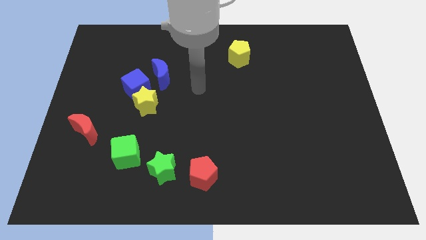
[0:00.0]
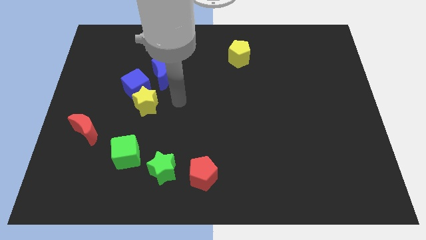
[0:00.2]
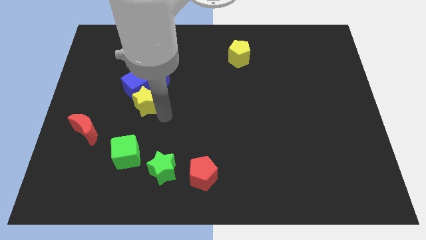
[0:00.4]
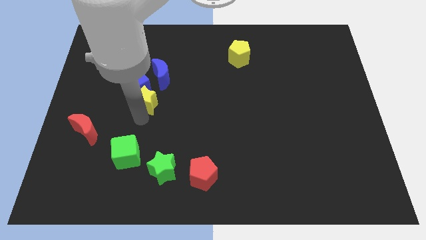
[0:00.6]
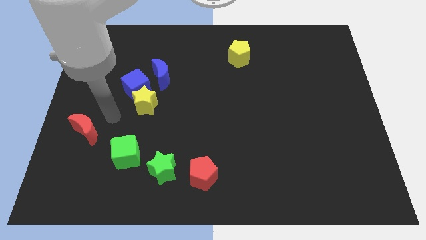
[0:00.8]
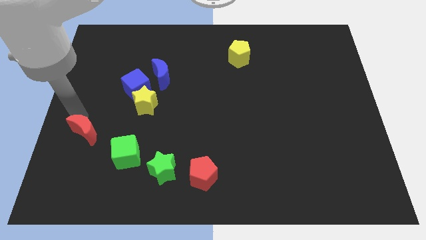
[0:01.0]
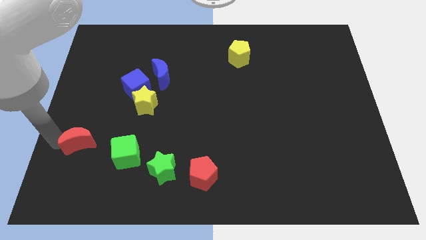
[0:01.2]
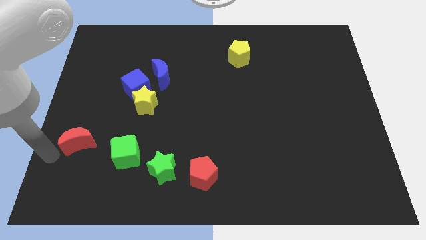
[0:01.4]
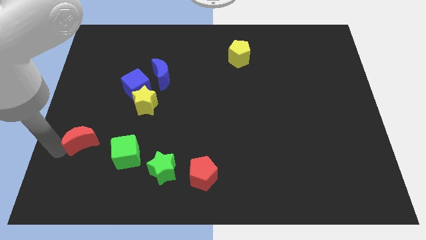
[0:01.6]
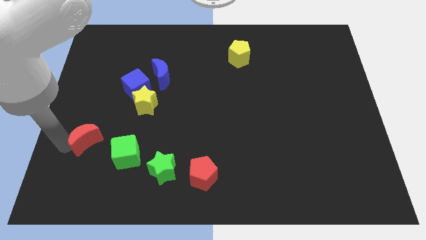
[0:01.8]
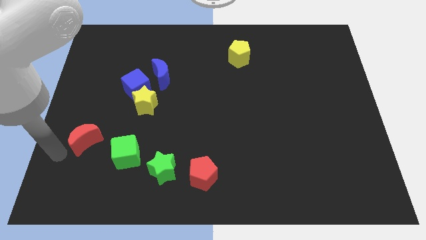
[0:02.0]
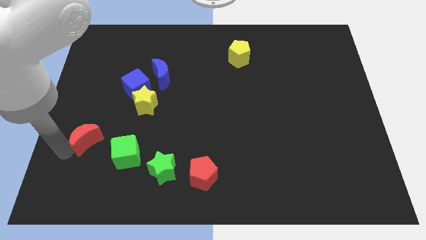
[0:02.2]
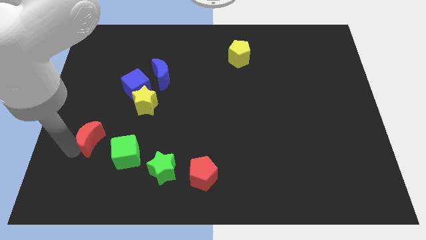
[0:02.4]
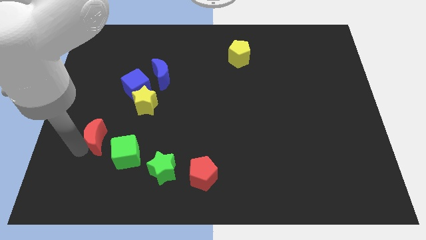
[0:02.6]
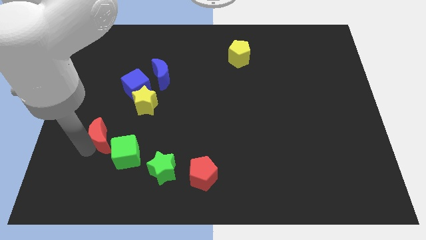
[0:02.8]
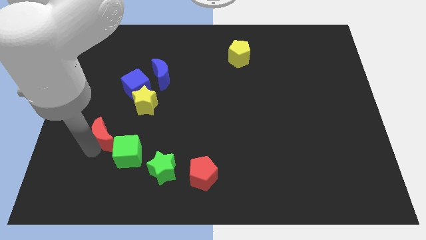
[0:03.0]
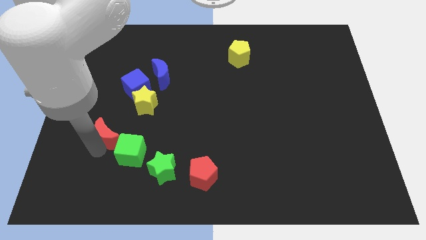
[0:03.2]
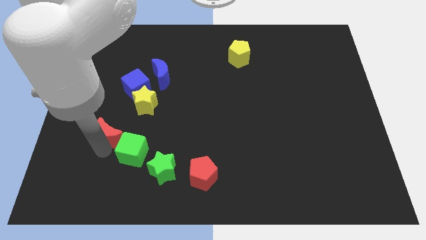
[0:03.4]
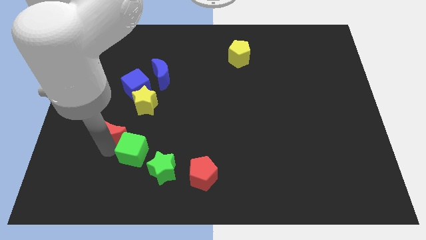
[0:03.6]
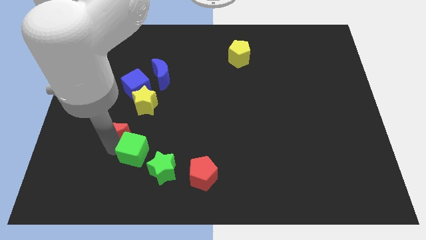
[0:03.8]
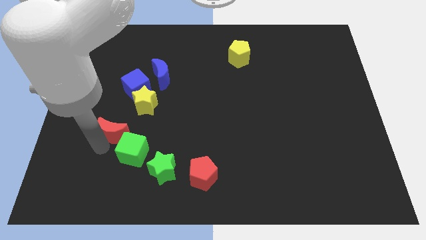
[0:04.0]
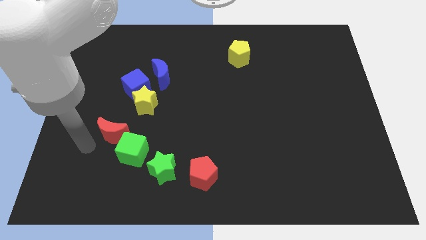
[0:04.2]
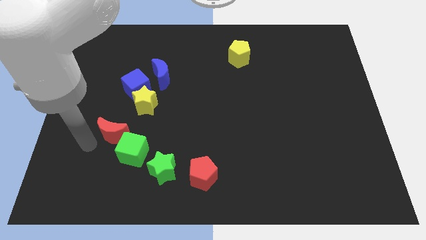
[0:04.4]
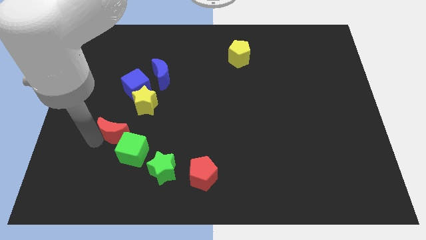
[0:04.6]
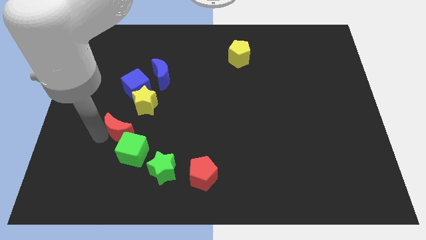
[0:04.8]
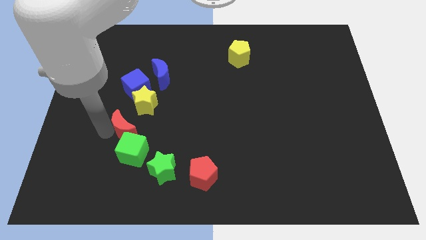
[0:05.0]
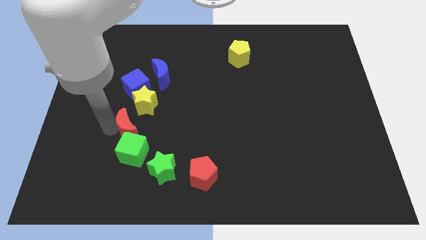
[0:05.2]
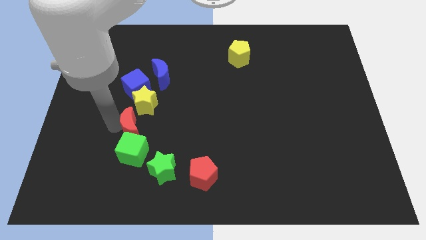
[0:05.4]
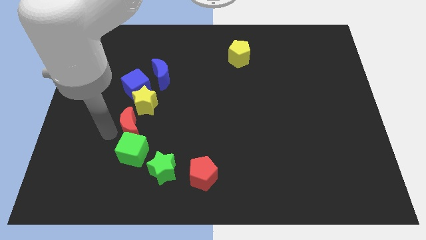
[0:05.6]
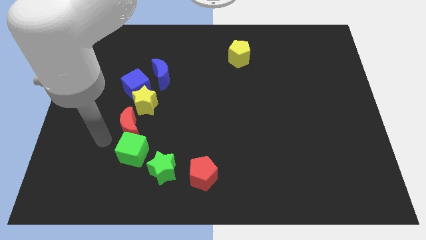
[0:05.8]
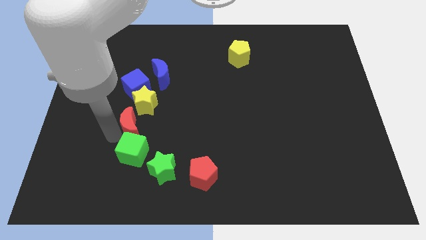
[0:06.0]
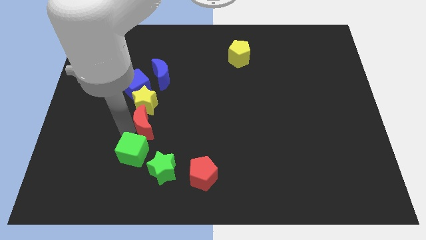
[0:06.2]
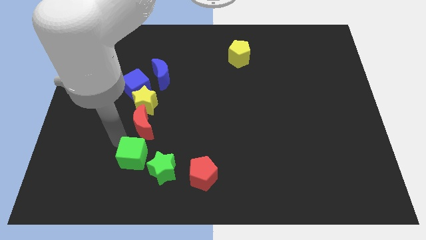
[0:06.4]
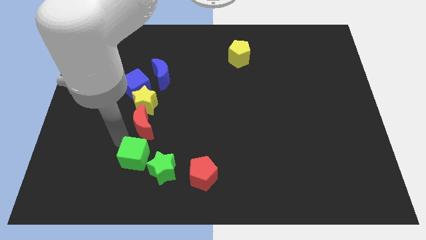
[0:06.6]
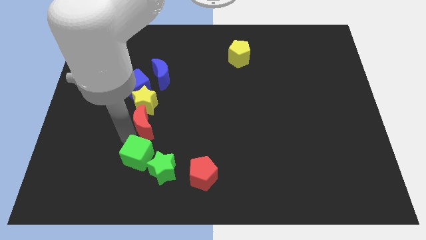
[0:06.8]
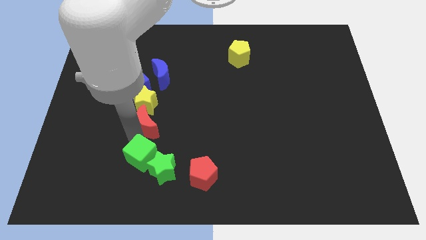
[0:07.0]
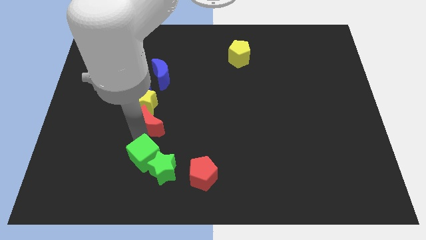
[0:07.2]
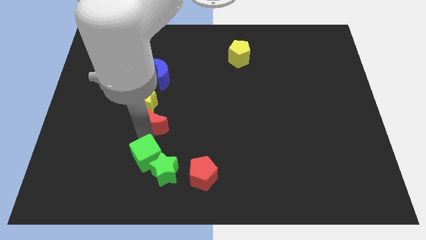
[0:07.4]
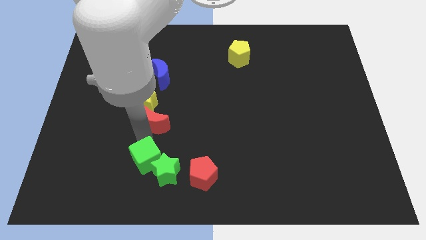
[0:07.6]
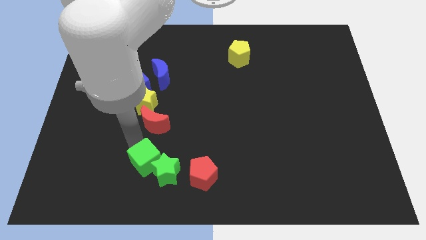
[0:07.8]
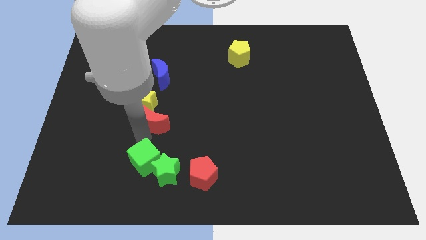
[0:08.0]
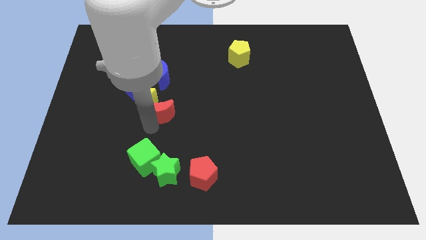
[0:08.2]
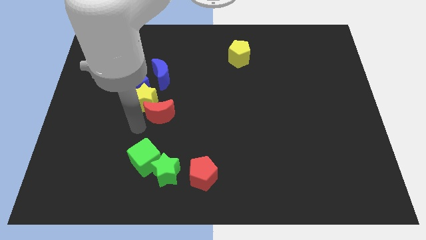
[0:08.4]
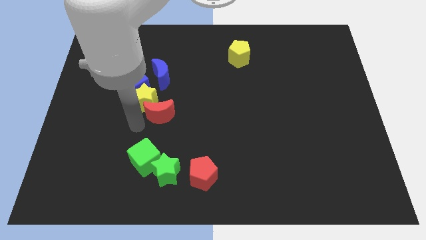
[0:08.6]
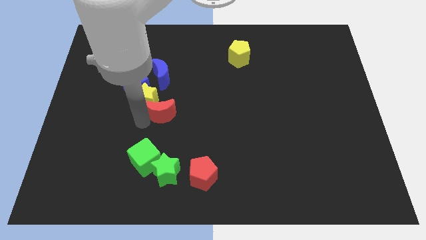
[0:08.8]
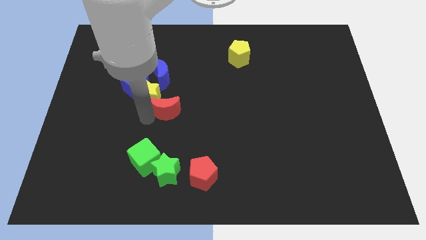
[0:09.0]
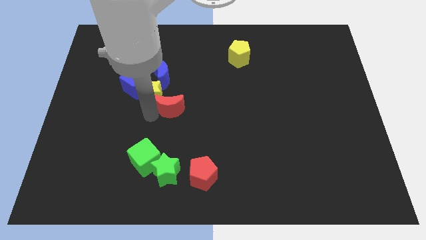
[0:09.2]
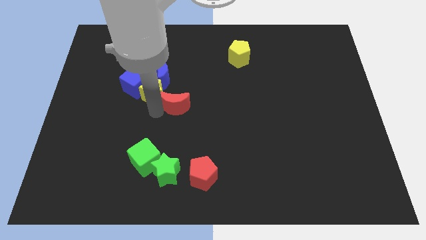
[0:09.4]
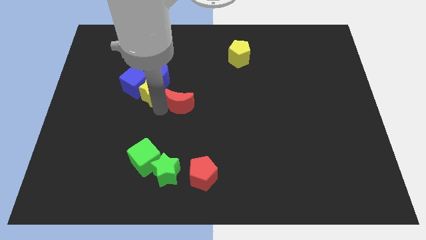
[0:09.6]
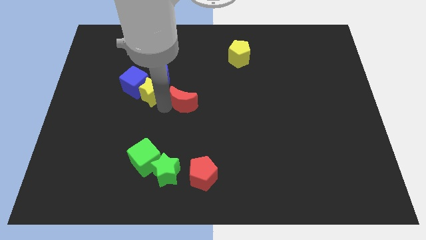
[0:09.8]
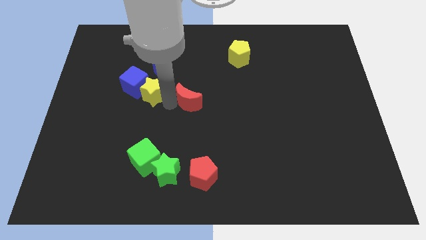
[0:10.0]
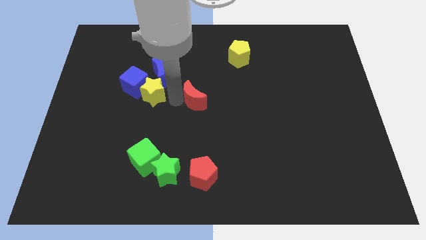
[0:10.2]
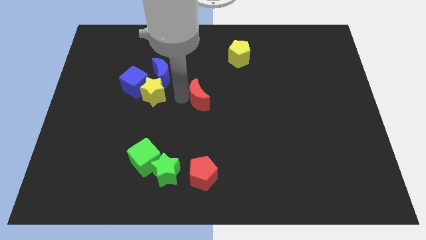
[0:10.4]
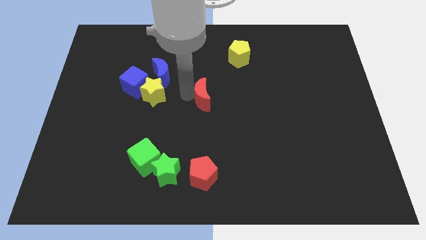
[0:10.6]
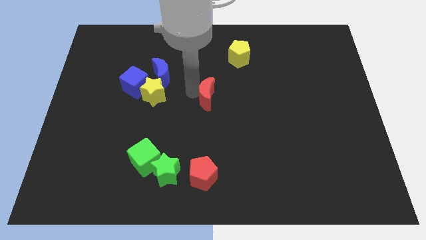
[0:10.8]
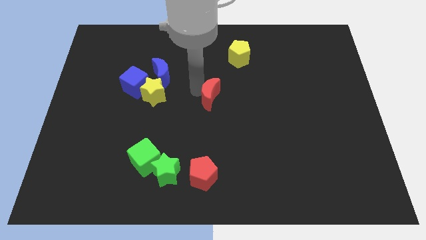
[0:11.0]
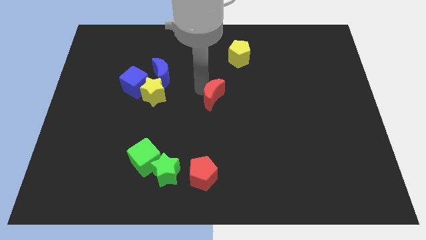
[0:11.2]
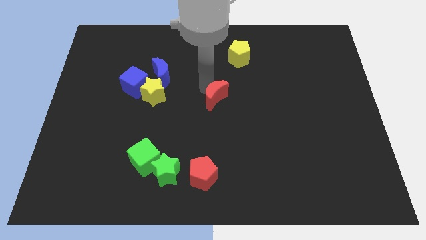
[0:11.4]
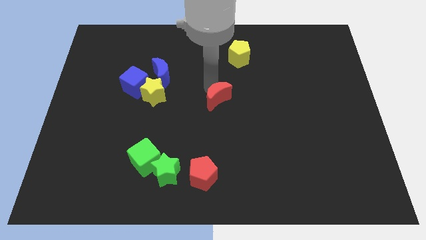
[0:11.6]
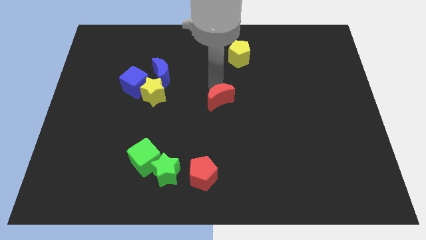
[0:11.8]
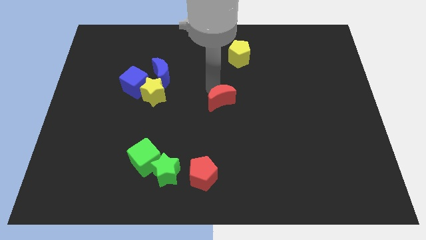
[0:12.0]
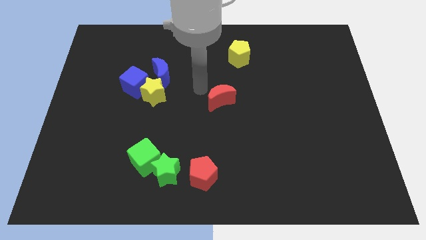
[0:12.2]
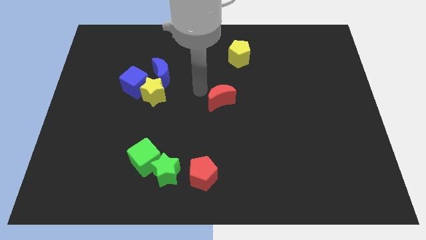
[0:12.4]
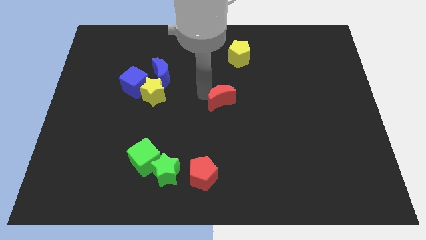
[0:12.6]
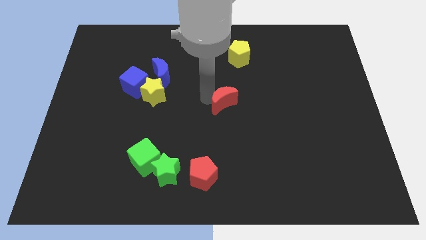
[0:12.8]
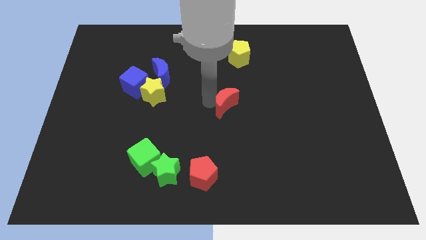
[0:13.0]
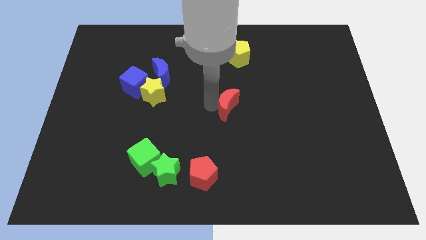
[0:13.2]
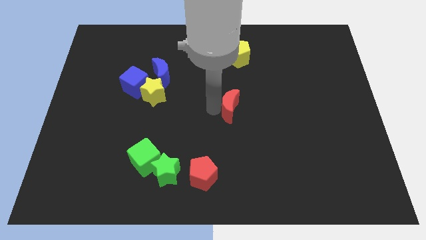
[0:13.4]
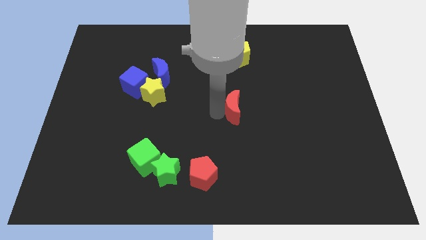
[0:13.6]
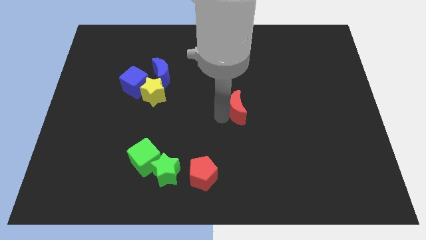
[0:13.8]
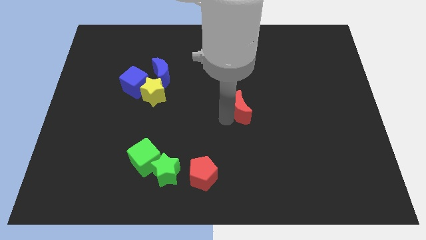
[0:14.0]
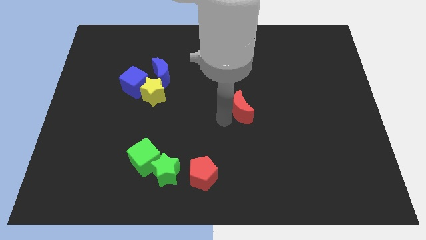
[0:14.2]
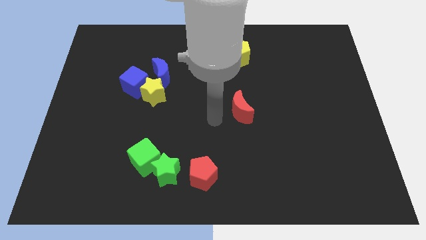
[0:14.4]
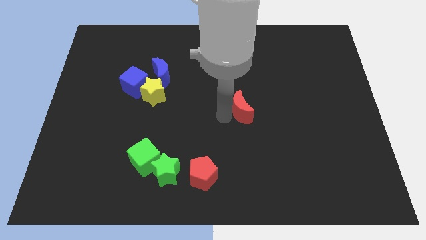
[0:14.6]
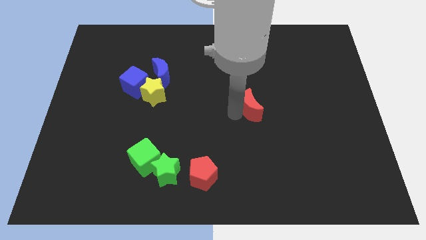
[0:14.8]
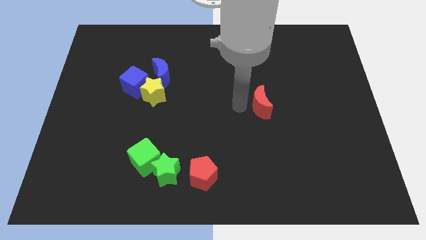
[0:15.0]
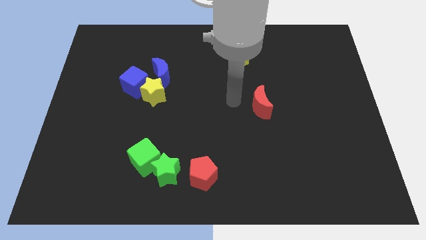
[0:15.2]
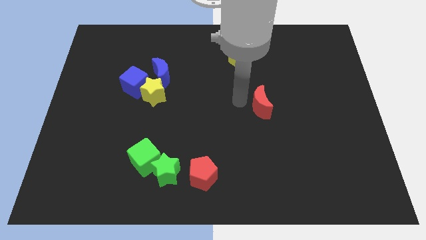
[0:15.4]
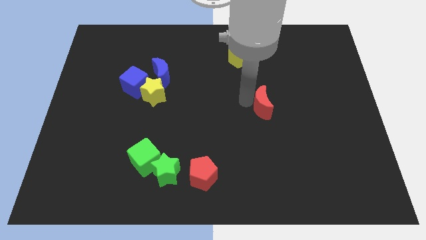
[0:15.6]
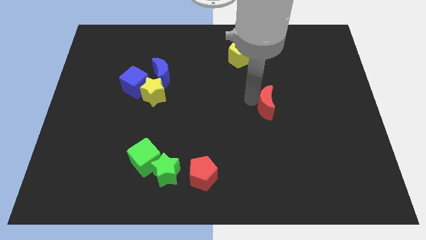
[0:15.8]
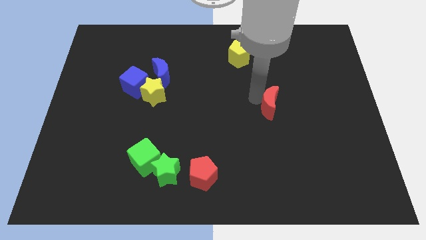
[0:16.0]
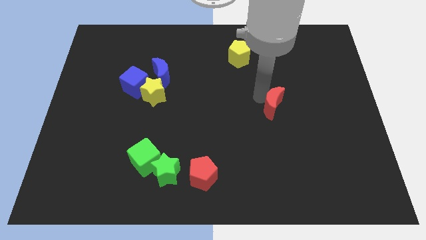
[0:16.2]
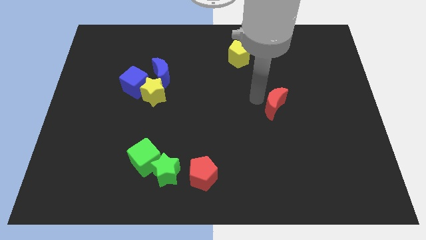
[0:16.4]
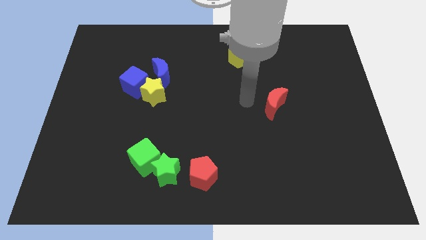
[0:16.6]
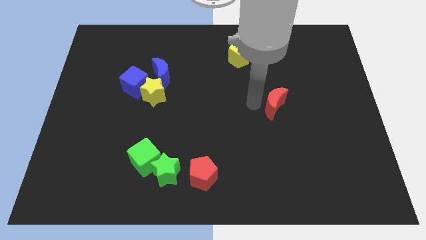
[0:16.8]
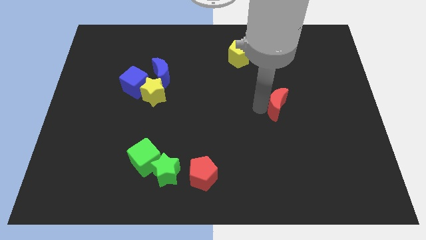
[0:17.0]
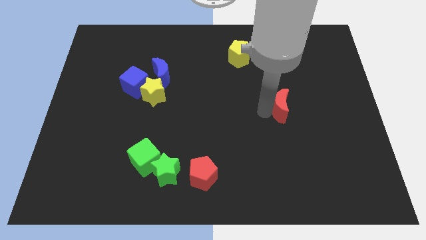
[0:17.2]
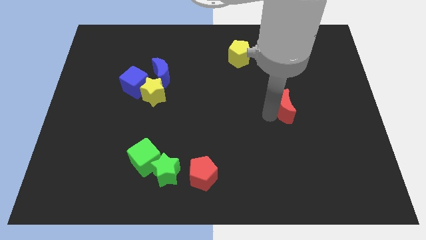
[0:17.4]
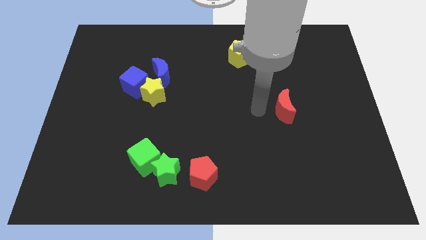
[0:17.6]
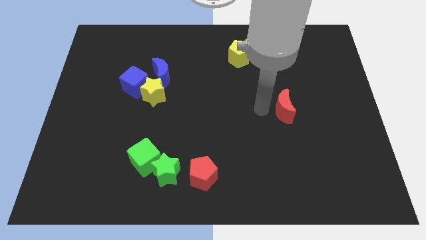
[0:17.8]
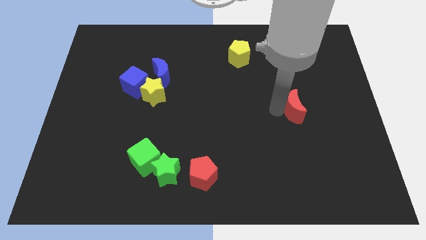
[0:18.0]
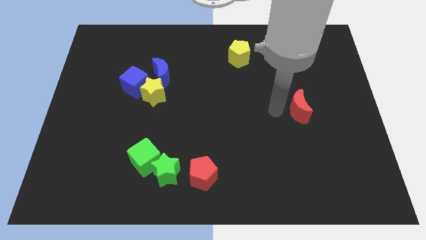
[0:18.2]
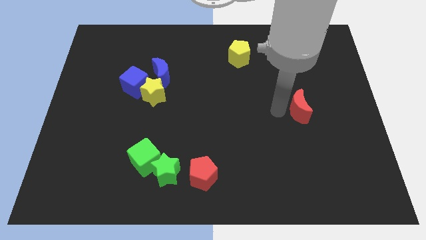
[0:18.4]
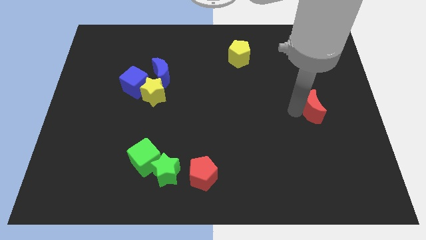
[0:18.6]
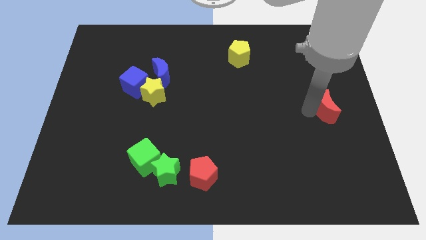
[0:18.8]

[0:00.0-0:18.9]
put the red moon to the right side
